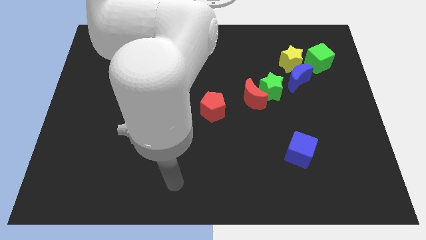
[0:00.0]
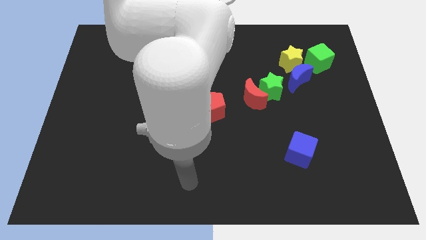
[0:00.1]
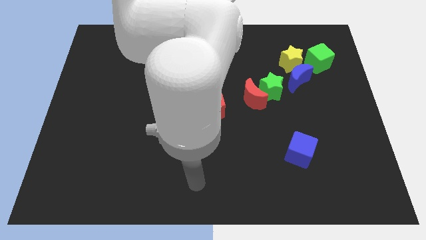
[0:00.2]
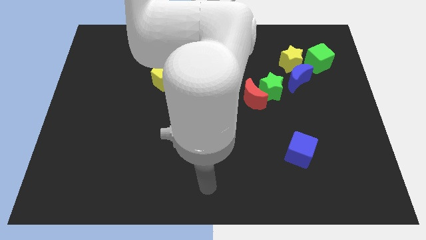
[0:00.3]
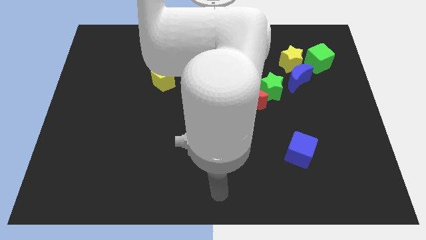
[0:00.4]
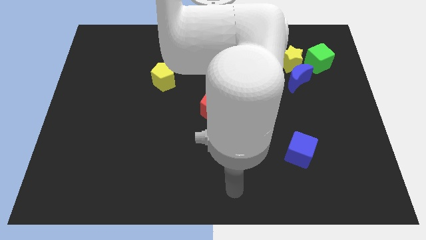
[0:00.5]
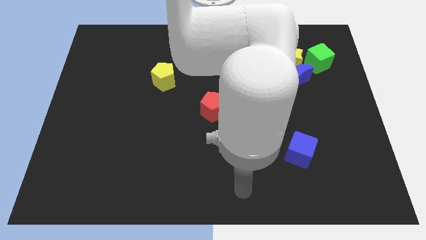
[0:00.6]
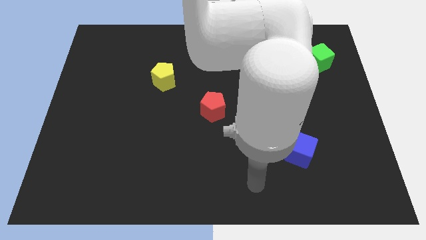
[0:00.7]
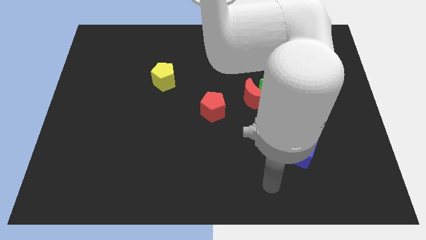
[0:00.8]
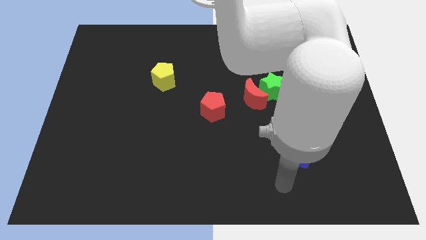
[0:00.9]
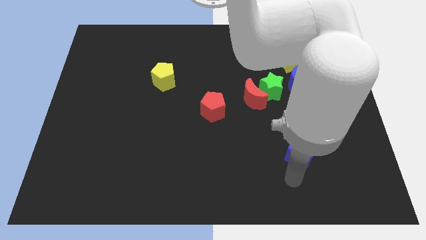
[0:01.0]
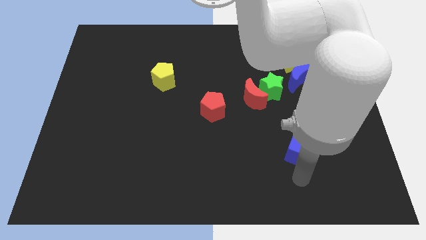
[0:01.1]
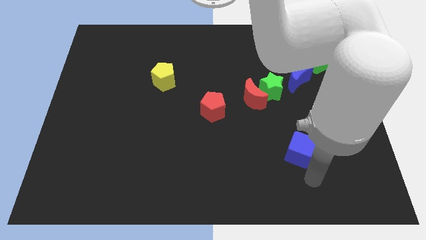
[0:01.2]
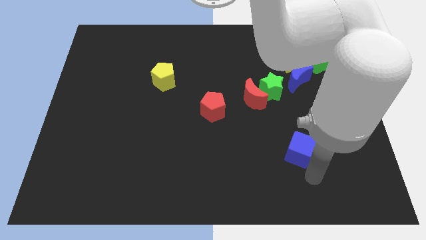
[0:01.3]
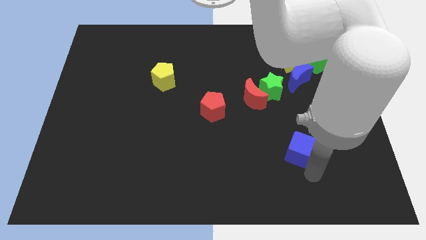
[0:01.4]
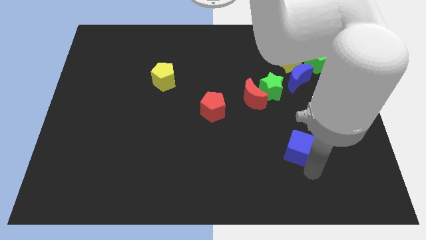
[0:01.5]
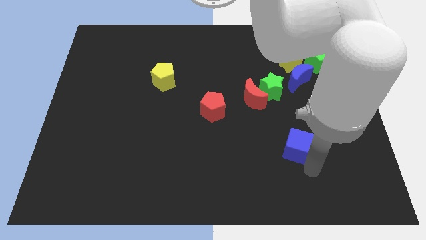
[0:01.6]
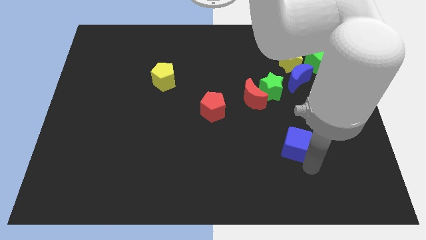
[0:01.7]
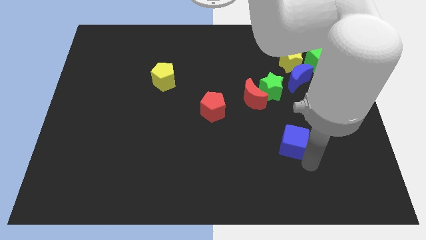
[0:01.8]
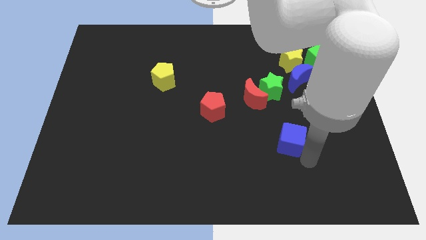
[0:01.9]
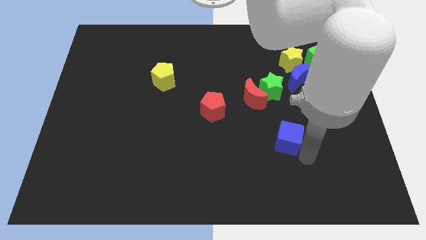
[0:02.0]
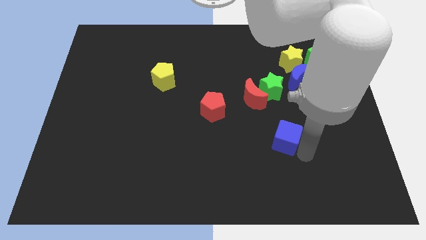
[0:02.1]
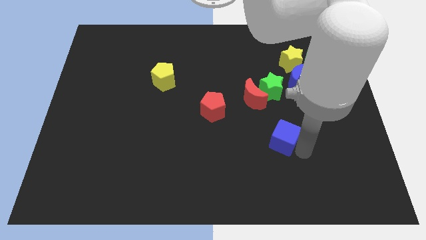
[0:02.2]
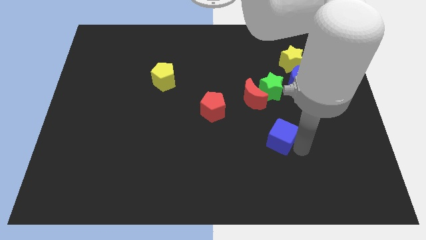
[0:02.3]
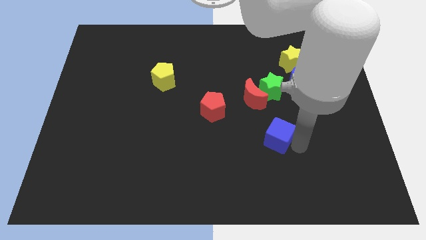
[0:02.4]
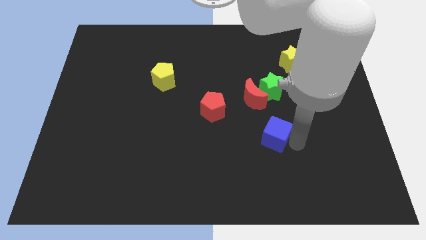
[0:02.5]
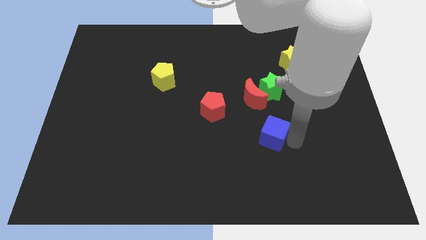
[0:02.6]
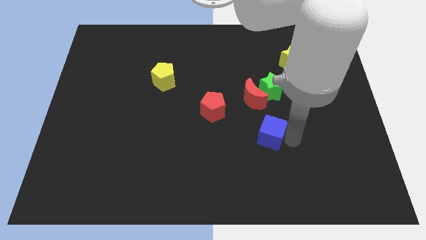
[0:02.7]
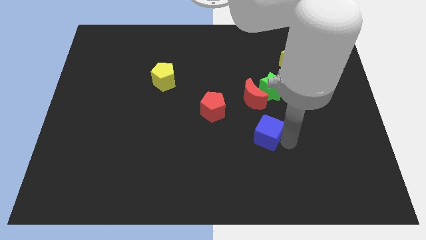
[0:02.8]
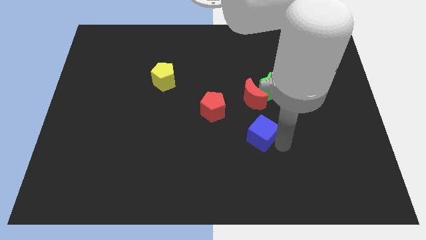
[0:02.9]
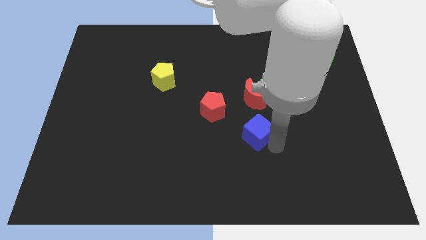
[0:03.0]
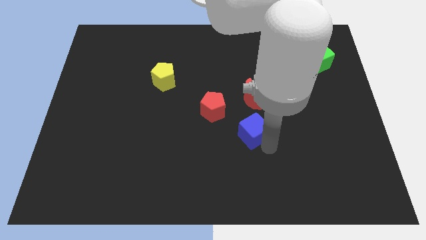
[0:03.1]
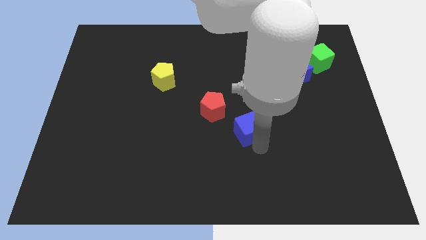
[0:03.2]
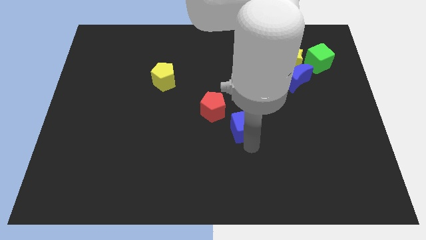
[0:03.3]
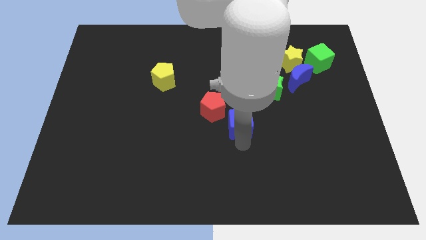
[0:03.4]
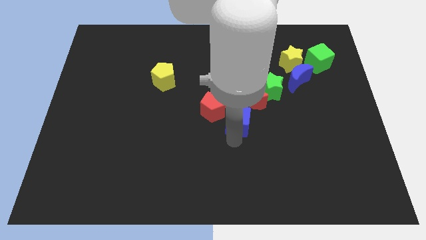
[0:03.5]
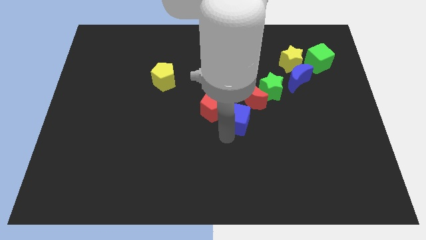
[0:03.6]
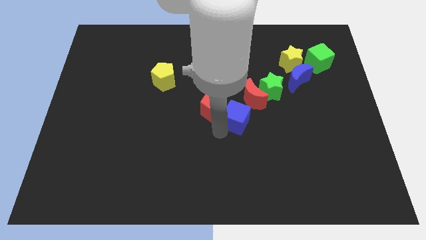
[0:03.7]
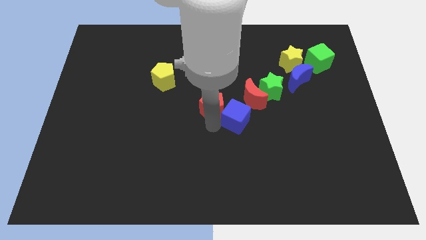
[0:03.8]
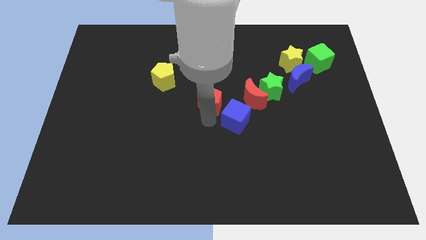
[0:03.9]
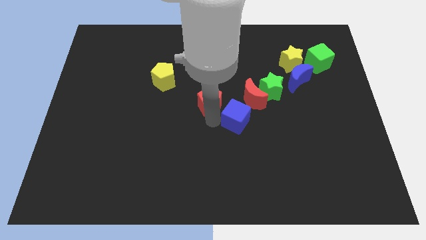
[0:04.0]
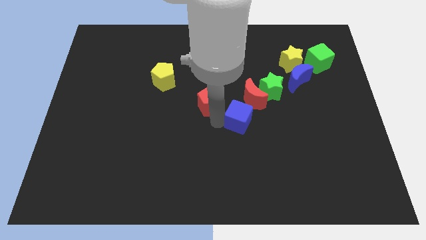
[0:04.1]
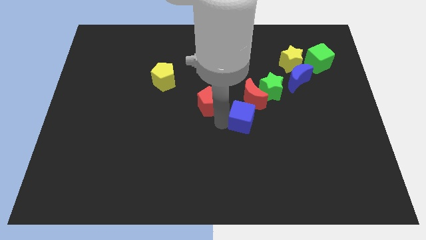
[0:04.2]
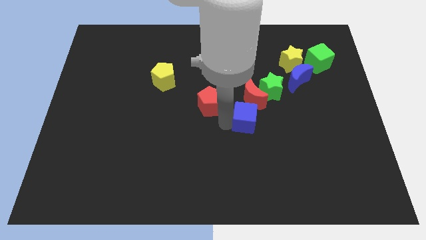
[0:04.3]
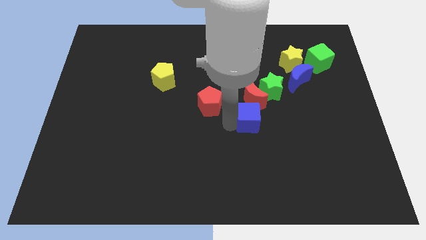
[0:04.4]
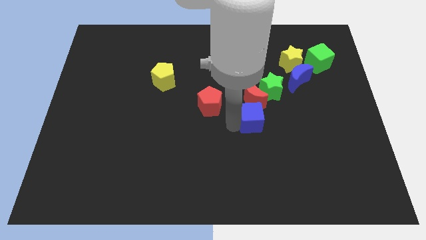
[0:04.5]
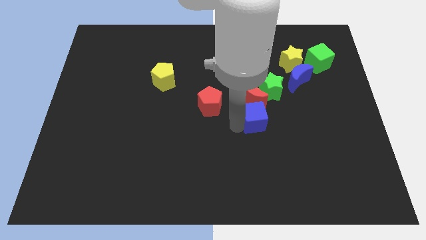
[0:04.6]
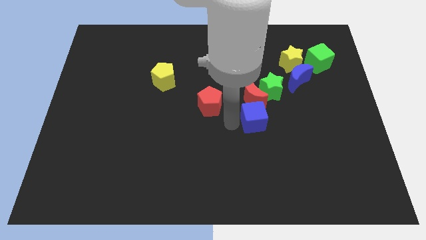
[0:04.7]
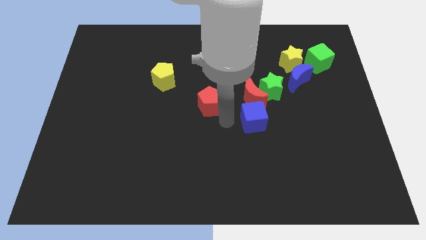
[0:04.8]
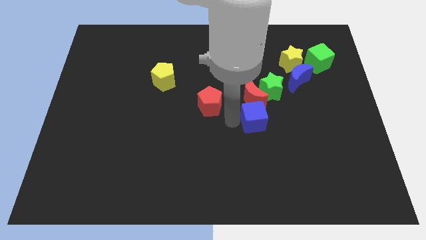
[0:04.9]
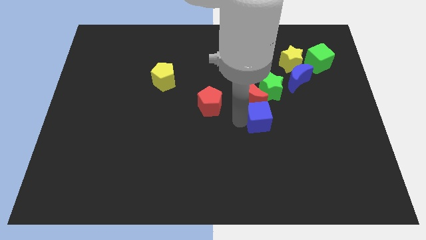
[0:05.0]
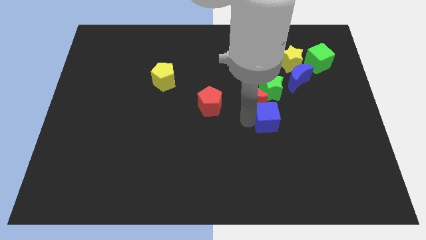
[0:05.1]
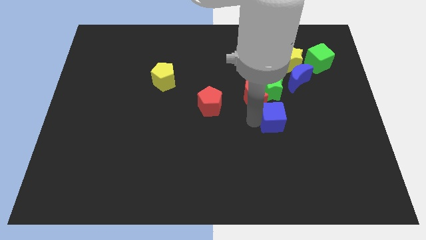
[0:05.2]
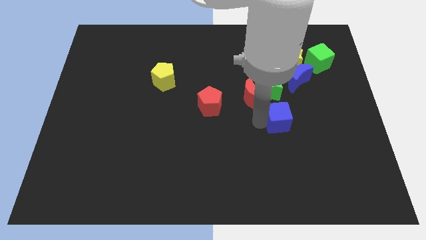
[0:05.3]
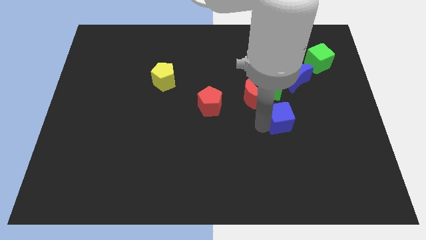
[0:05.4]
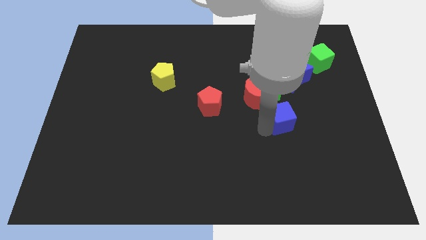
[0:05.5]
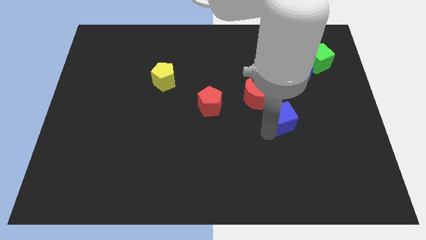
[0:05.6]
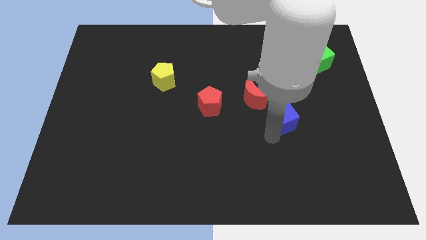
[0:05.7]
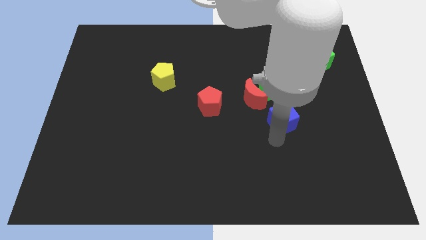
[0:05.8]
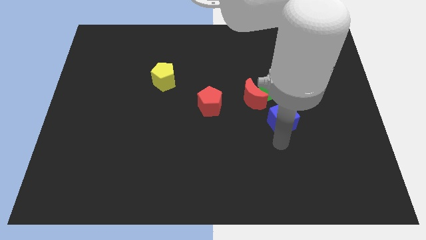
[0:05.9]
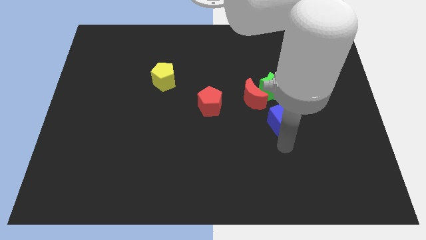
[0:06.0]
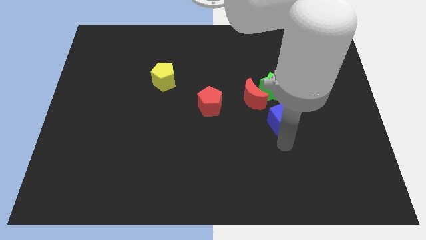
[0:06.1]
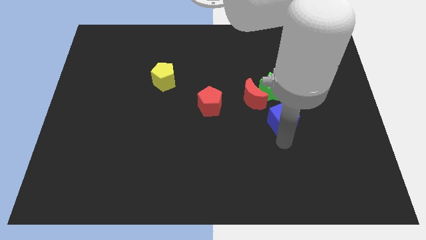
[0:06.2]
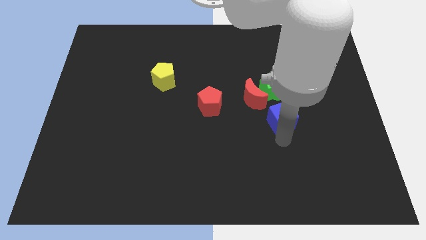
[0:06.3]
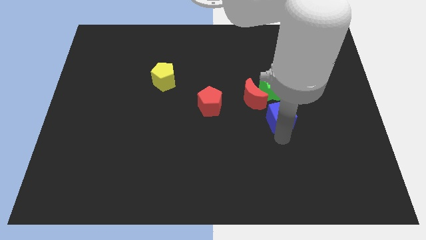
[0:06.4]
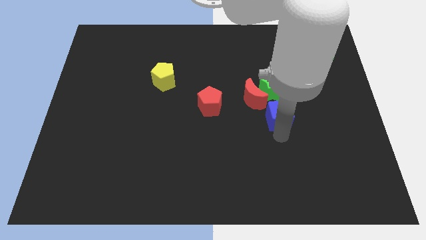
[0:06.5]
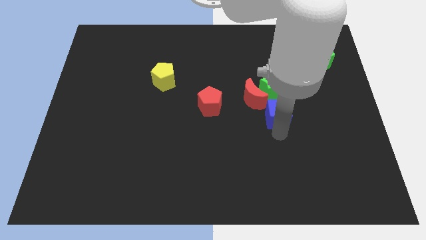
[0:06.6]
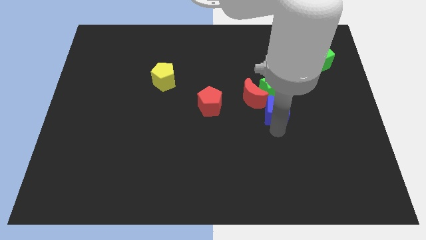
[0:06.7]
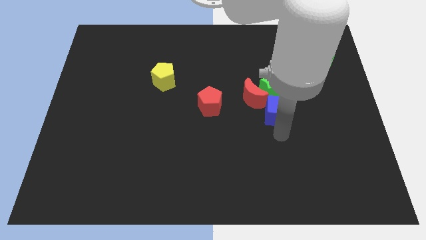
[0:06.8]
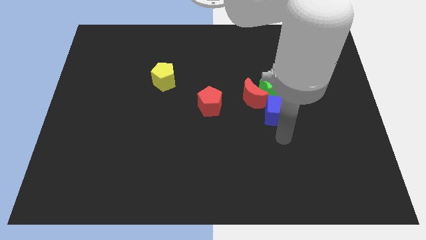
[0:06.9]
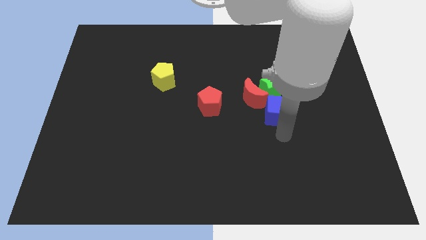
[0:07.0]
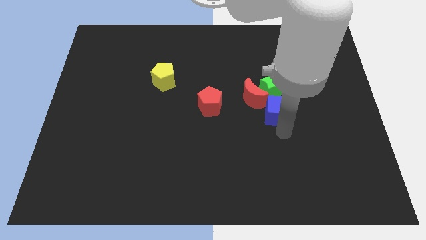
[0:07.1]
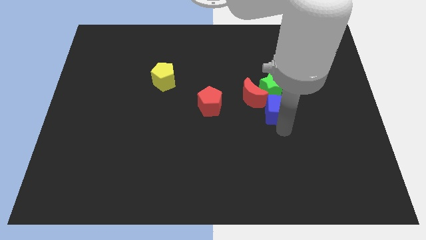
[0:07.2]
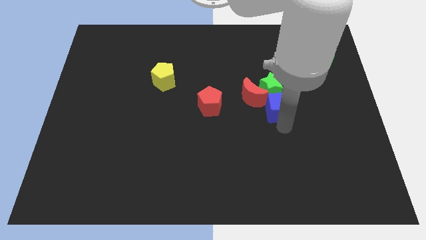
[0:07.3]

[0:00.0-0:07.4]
put the blue cube next to the green star

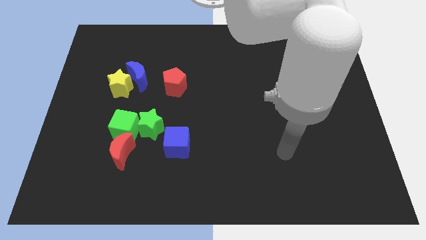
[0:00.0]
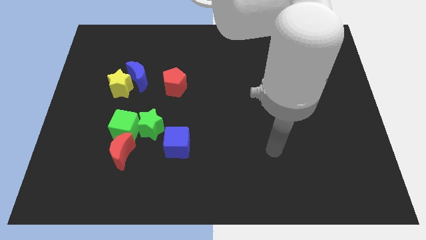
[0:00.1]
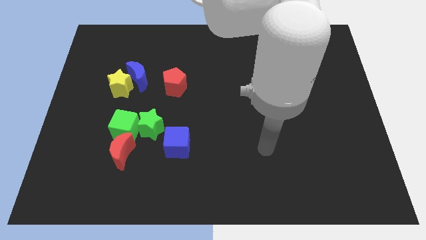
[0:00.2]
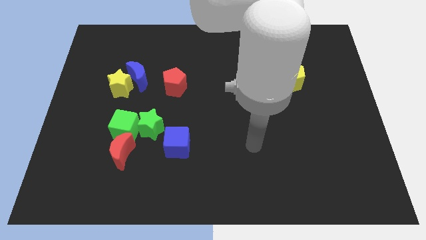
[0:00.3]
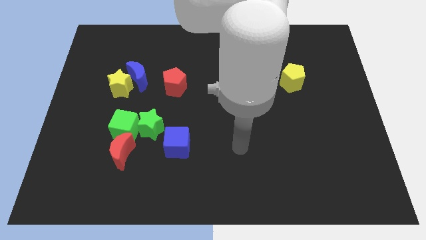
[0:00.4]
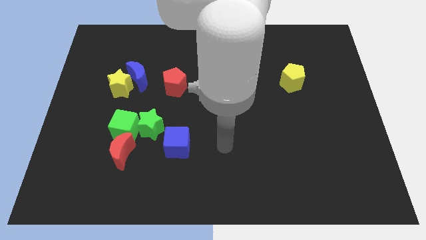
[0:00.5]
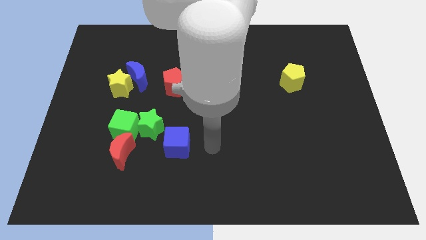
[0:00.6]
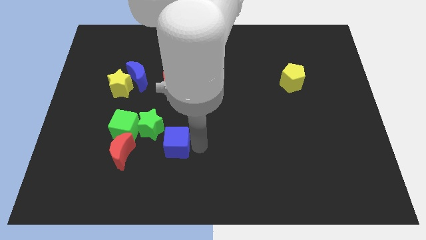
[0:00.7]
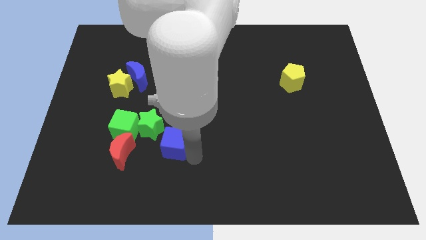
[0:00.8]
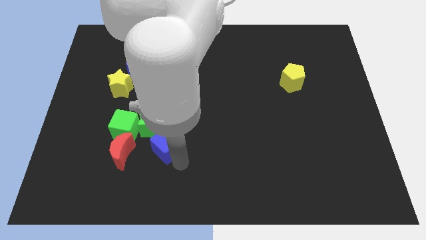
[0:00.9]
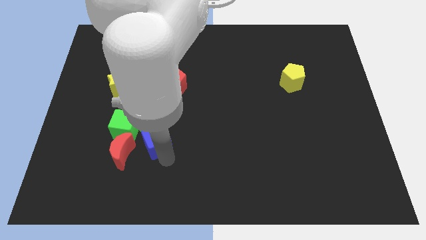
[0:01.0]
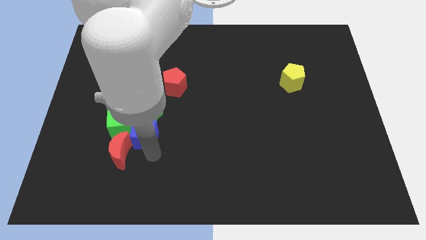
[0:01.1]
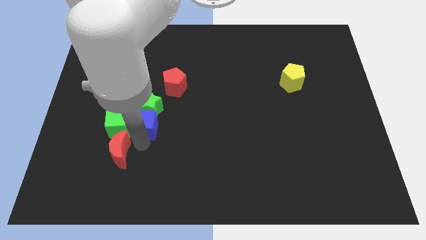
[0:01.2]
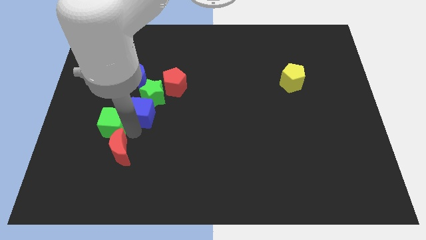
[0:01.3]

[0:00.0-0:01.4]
push the green star close to the red pentagon
